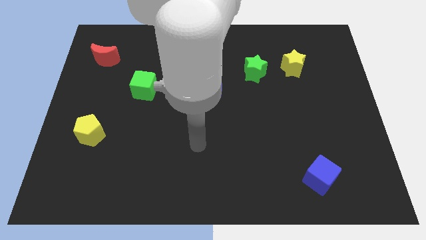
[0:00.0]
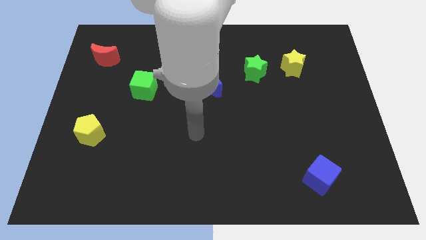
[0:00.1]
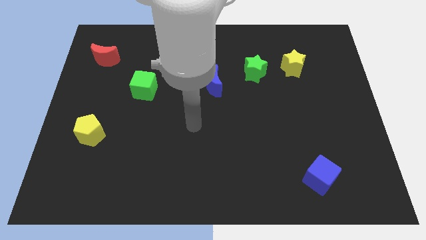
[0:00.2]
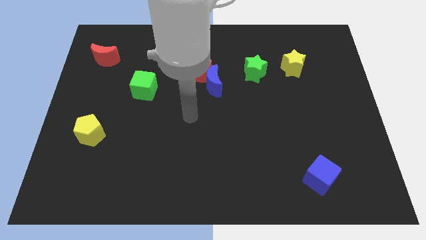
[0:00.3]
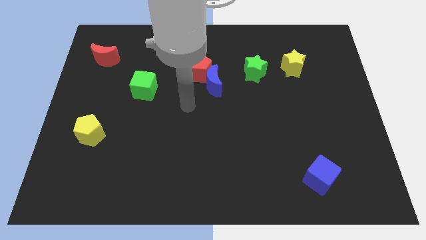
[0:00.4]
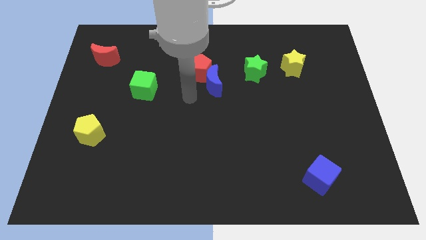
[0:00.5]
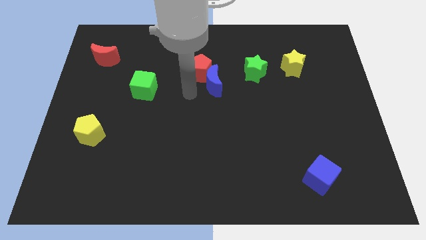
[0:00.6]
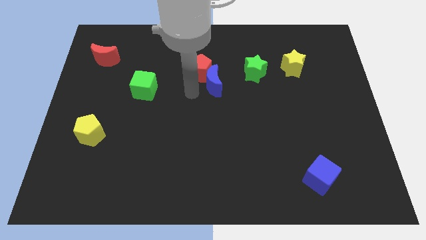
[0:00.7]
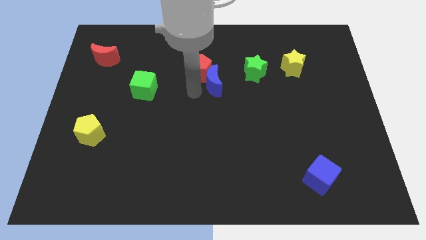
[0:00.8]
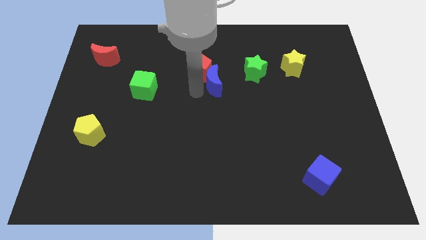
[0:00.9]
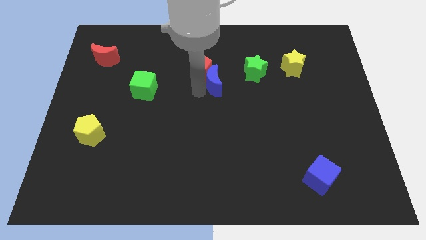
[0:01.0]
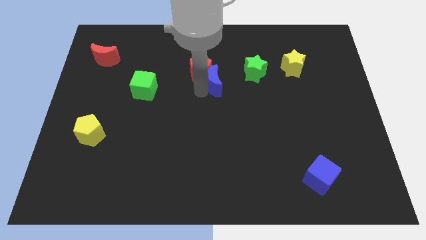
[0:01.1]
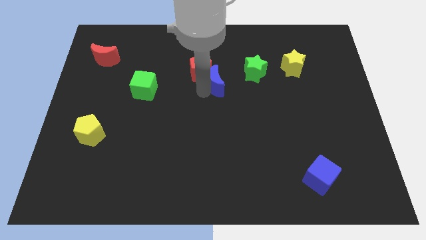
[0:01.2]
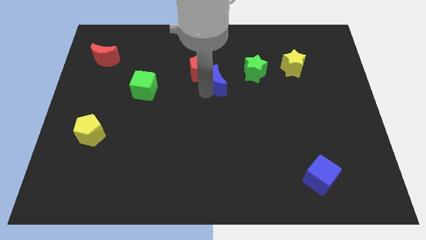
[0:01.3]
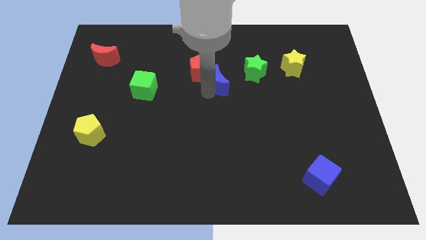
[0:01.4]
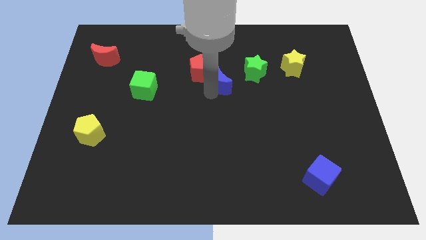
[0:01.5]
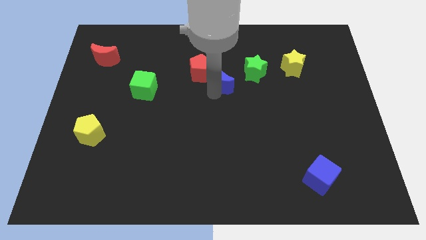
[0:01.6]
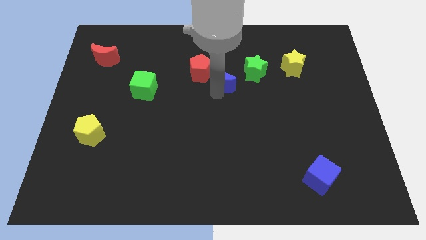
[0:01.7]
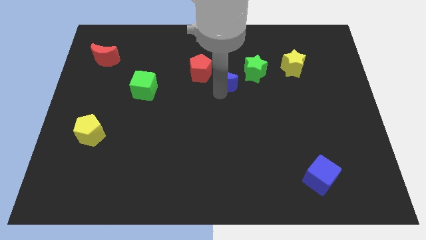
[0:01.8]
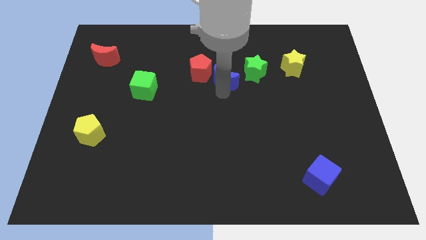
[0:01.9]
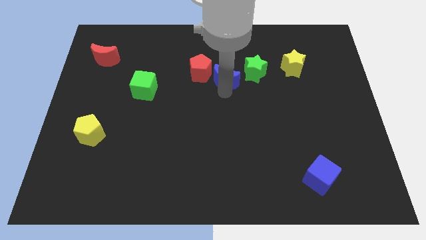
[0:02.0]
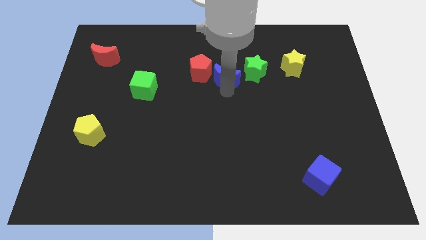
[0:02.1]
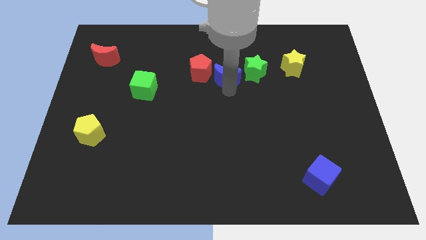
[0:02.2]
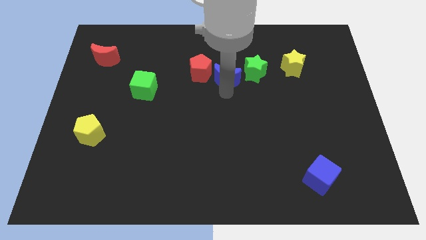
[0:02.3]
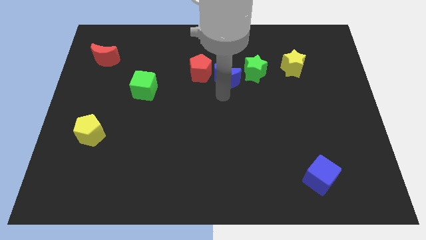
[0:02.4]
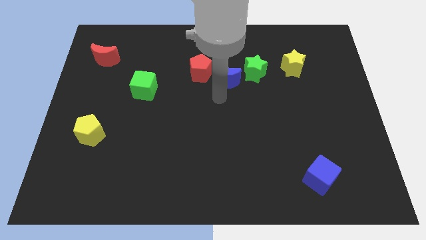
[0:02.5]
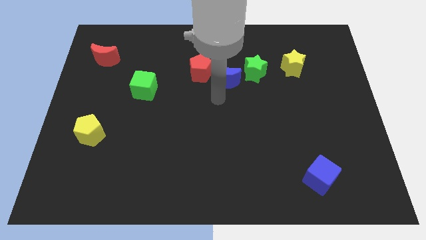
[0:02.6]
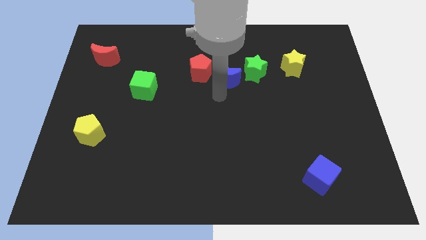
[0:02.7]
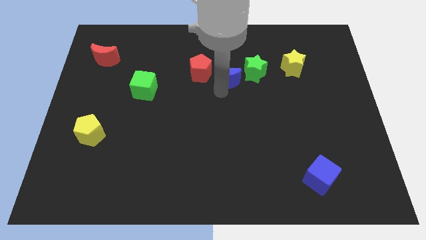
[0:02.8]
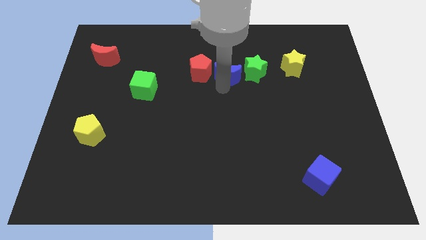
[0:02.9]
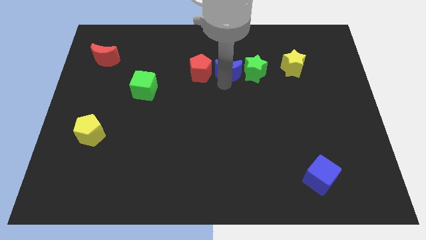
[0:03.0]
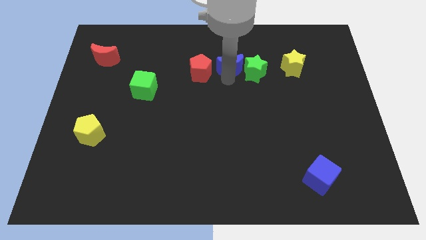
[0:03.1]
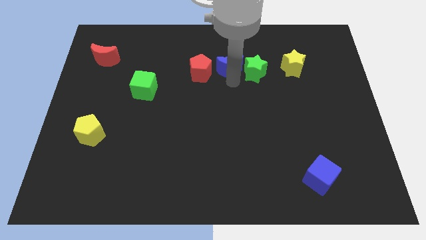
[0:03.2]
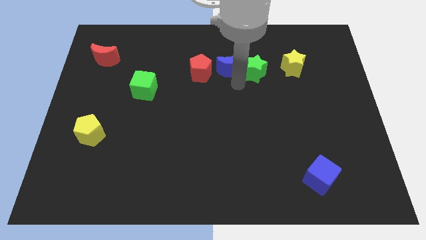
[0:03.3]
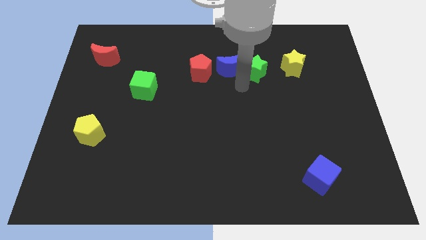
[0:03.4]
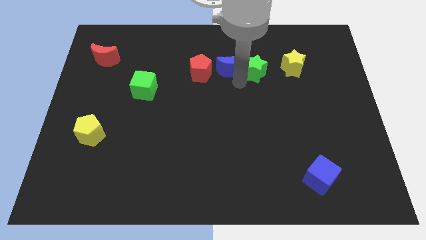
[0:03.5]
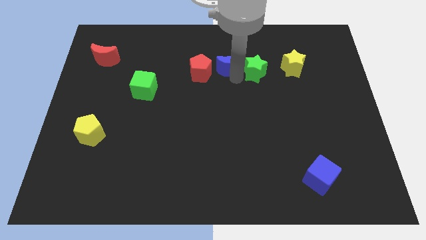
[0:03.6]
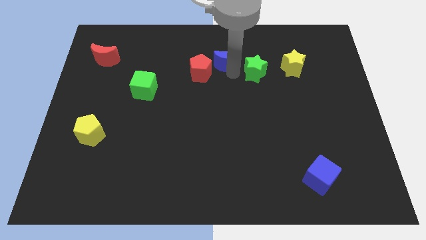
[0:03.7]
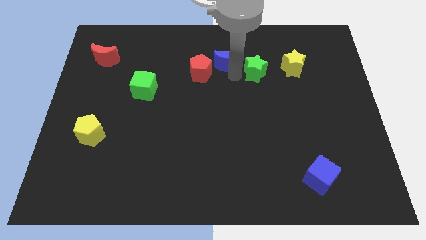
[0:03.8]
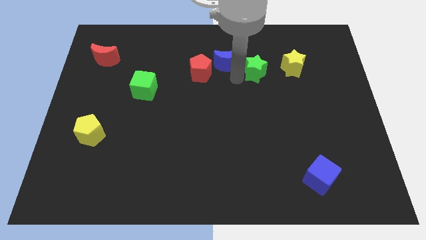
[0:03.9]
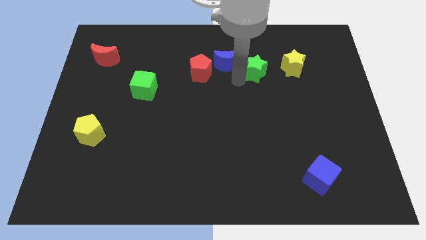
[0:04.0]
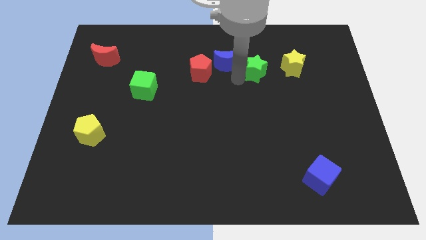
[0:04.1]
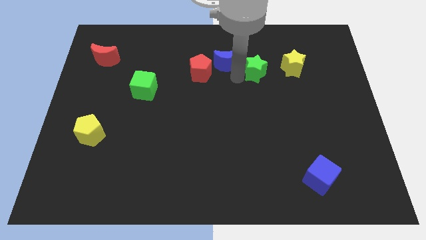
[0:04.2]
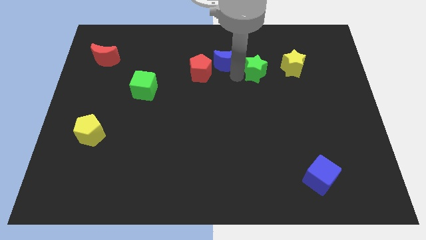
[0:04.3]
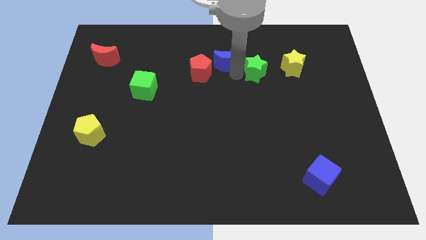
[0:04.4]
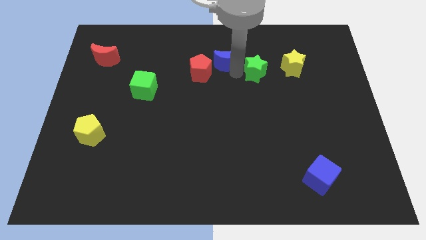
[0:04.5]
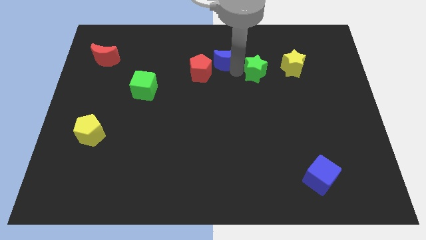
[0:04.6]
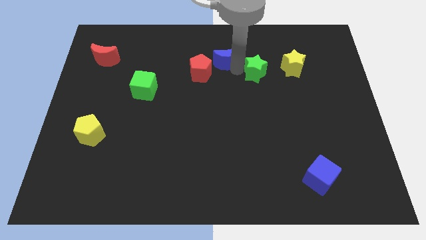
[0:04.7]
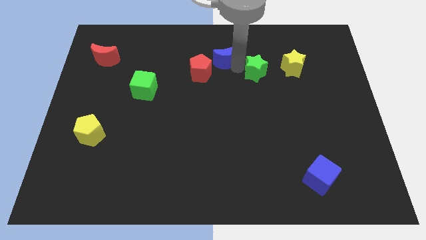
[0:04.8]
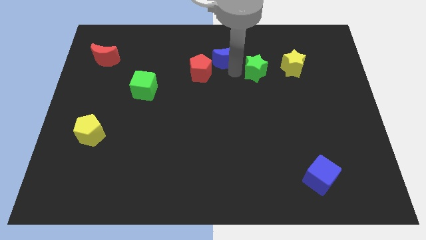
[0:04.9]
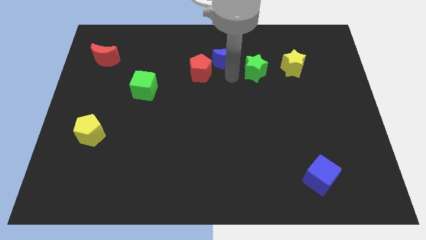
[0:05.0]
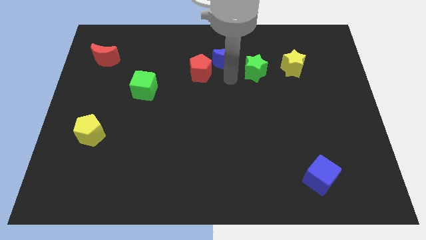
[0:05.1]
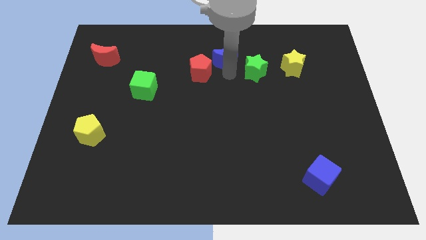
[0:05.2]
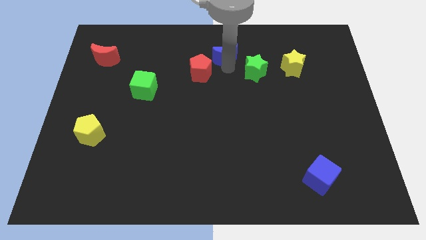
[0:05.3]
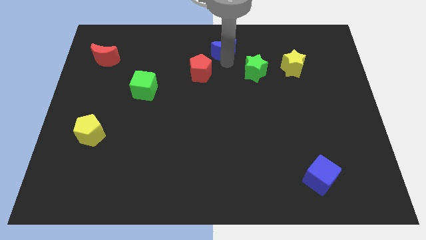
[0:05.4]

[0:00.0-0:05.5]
move the blue moon to the top

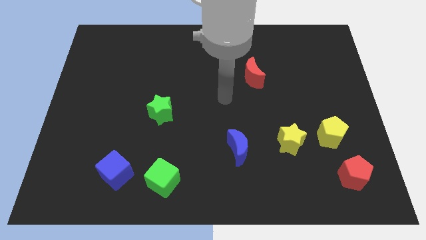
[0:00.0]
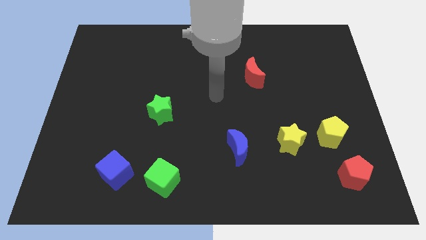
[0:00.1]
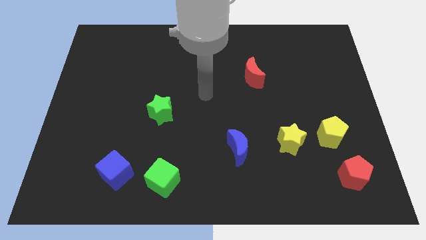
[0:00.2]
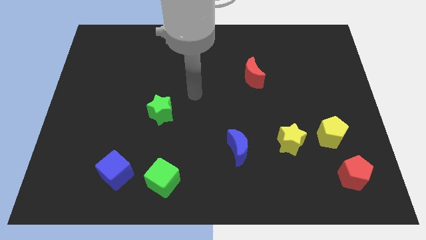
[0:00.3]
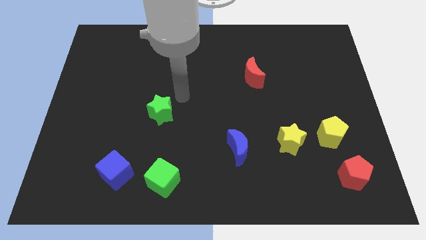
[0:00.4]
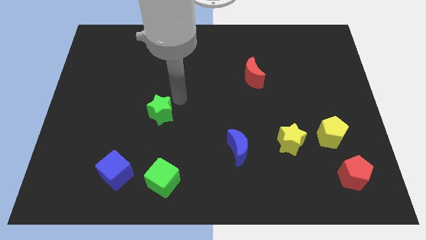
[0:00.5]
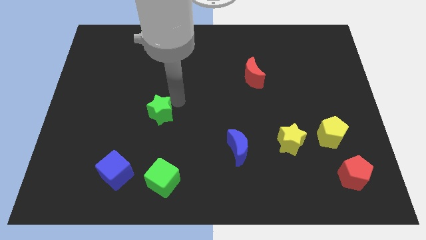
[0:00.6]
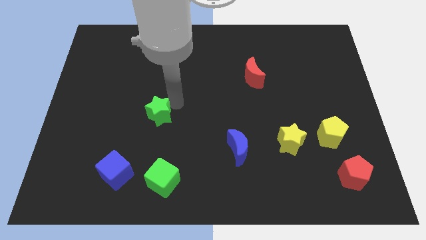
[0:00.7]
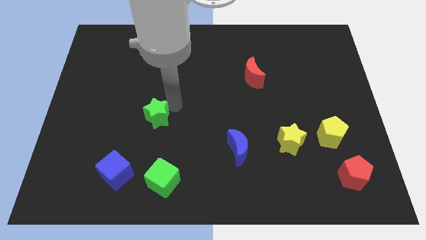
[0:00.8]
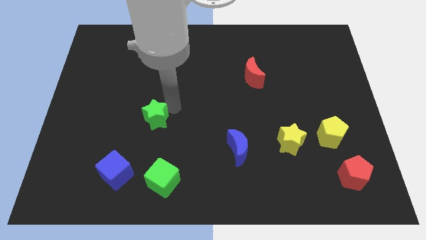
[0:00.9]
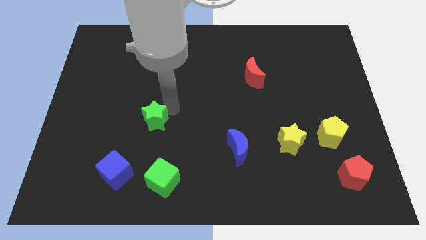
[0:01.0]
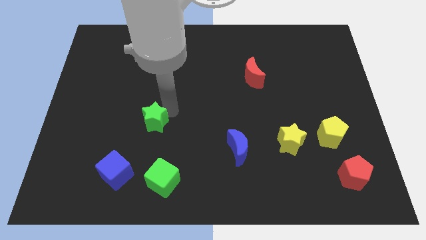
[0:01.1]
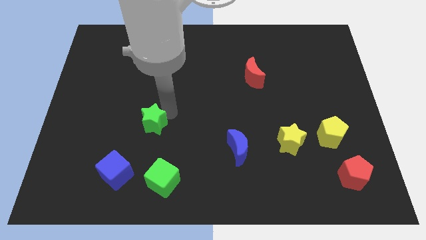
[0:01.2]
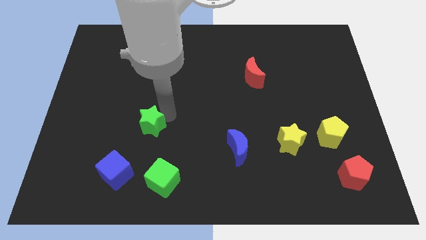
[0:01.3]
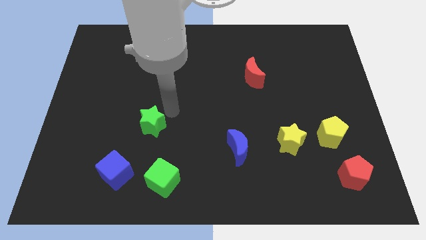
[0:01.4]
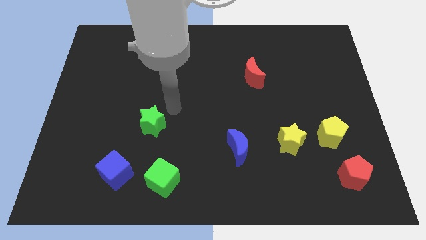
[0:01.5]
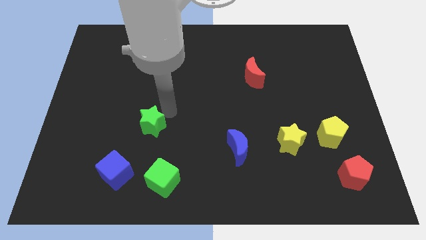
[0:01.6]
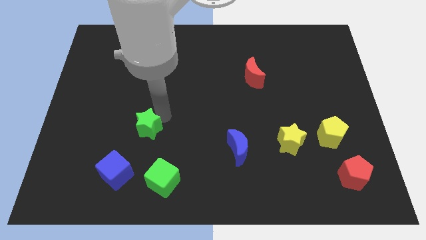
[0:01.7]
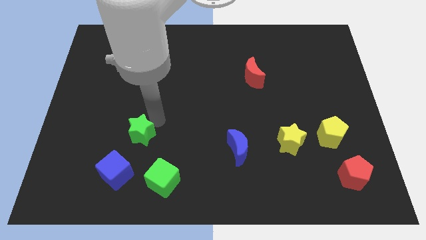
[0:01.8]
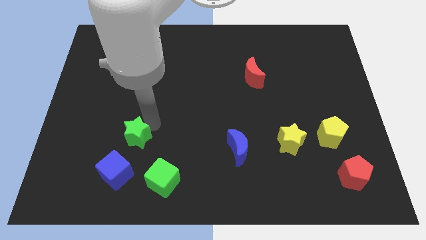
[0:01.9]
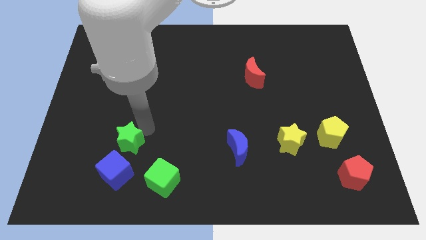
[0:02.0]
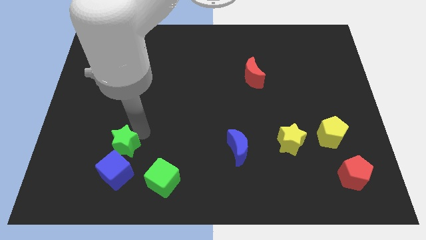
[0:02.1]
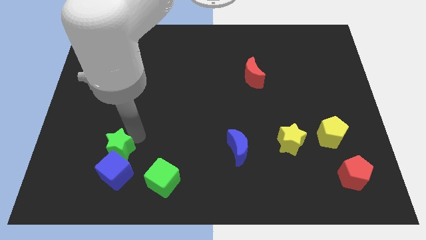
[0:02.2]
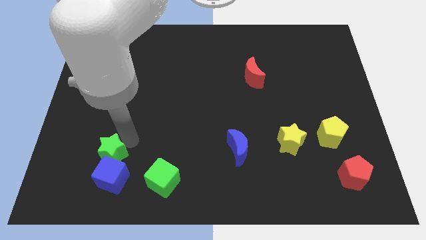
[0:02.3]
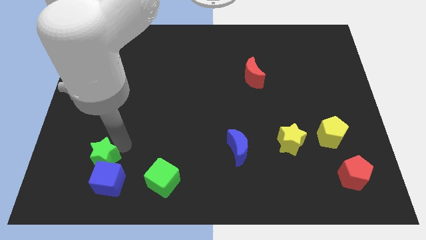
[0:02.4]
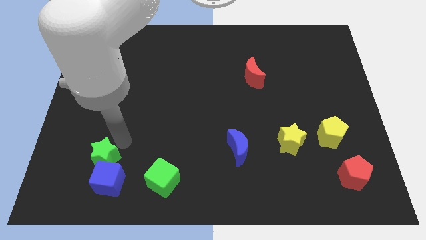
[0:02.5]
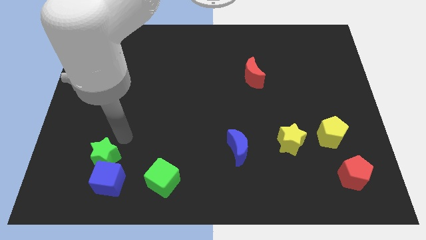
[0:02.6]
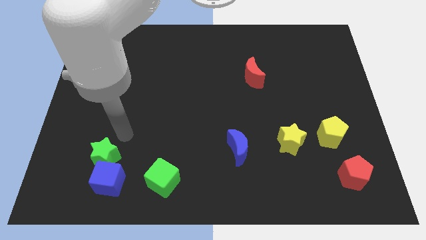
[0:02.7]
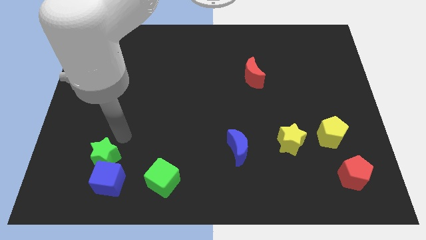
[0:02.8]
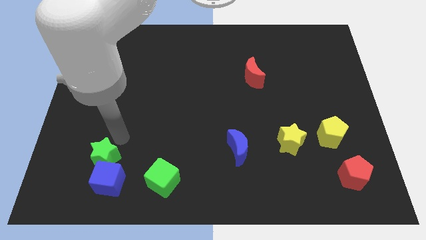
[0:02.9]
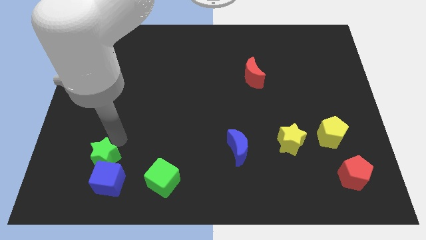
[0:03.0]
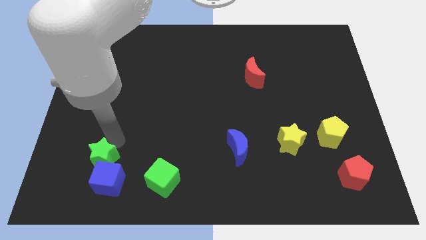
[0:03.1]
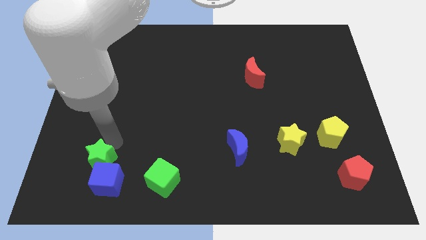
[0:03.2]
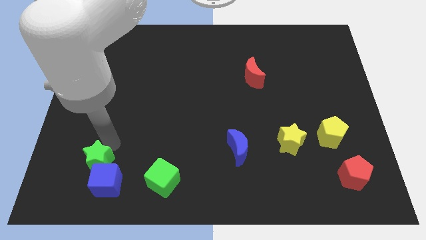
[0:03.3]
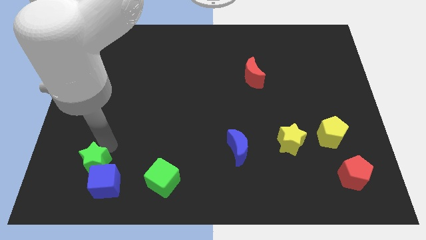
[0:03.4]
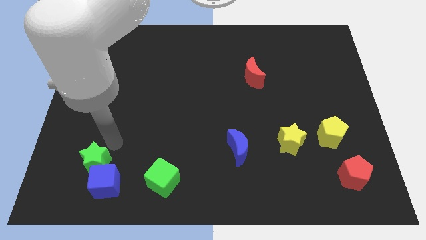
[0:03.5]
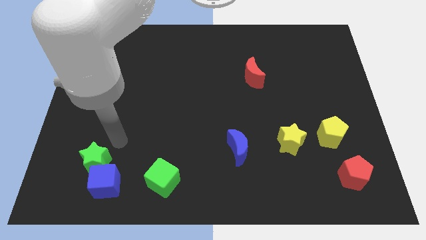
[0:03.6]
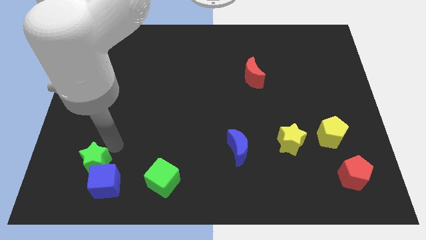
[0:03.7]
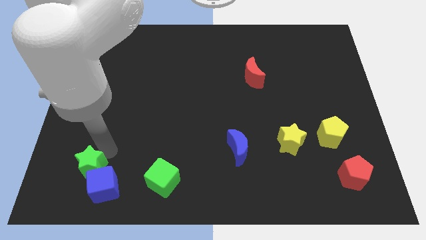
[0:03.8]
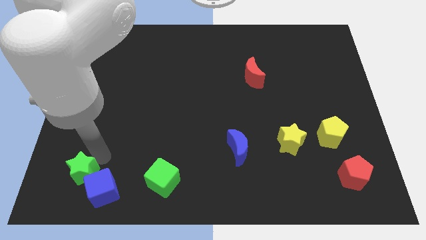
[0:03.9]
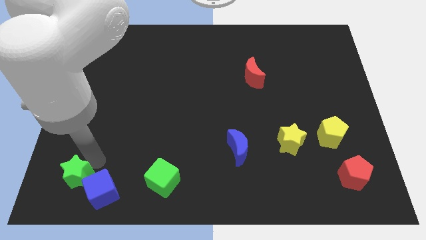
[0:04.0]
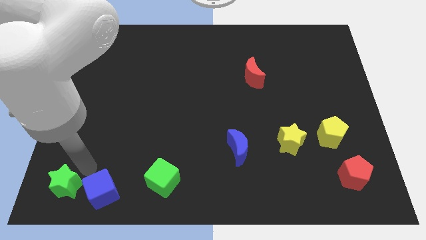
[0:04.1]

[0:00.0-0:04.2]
move the green star to the bottom left of the board
